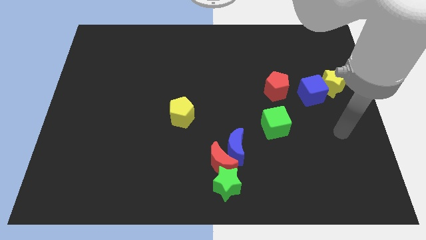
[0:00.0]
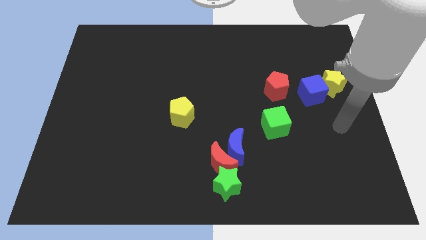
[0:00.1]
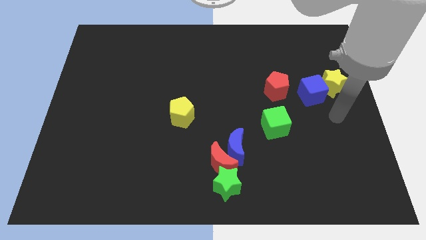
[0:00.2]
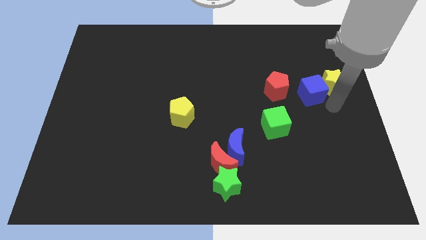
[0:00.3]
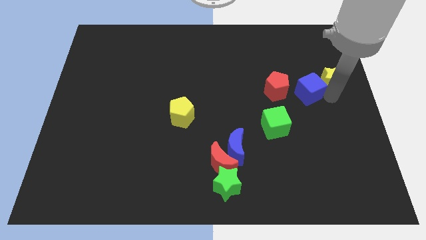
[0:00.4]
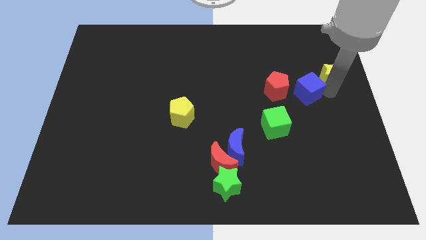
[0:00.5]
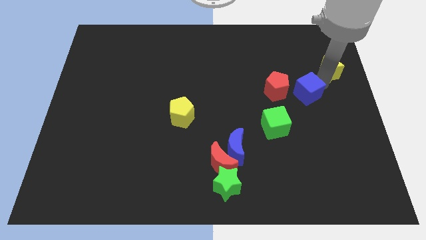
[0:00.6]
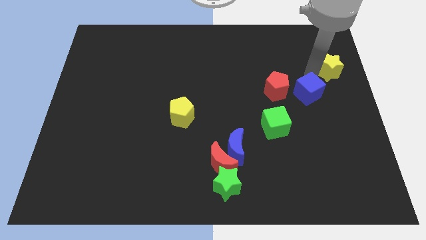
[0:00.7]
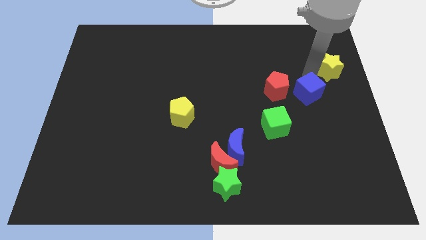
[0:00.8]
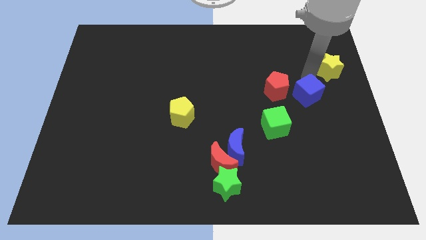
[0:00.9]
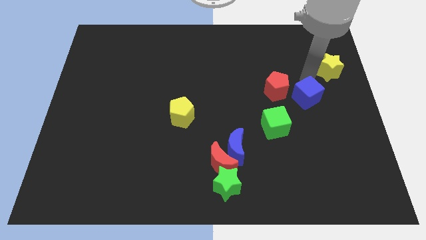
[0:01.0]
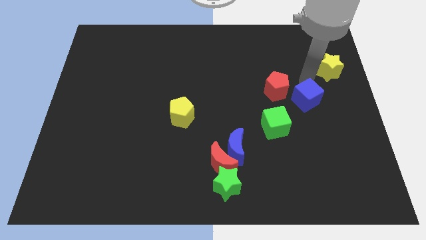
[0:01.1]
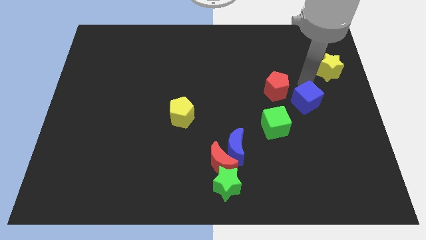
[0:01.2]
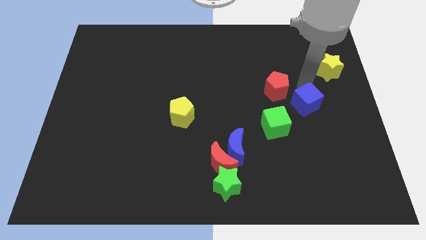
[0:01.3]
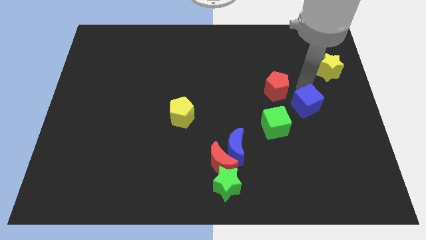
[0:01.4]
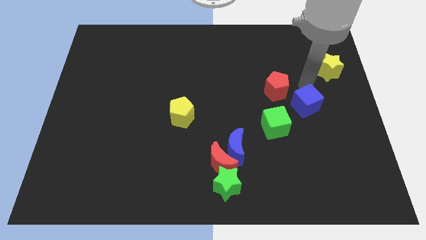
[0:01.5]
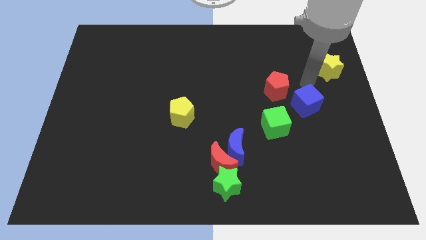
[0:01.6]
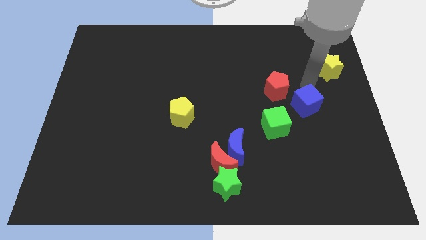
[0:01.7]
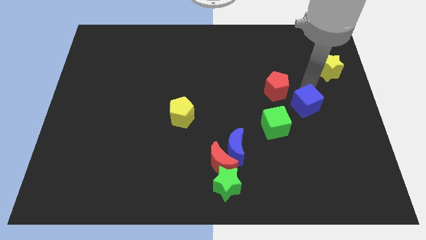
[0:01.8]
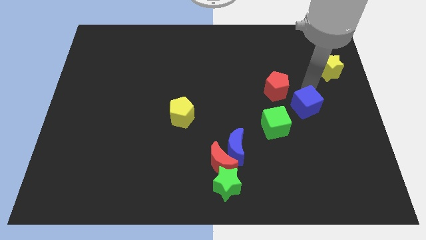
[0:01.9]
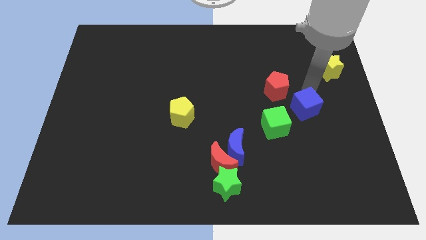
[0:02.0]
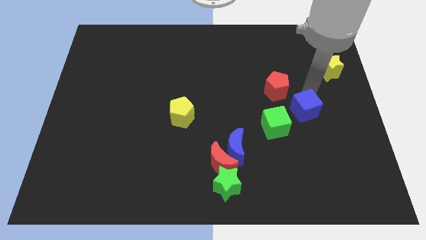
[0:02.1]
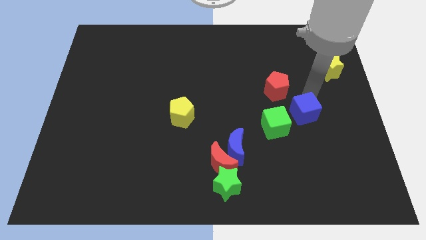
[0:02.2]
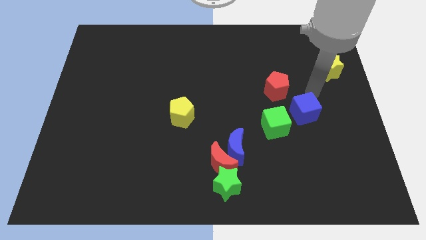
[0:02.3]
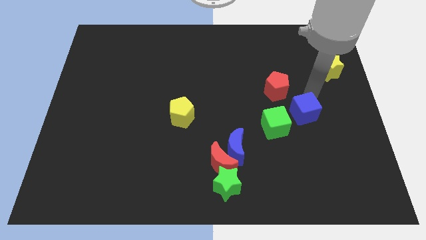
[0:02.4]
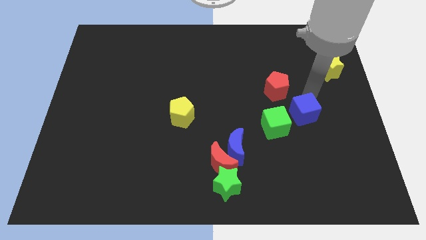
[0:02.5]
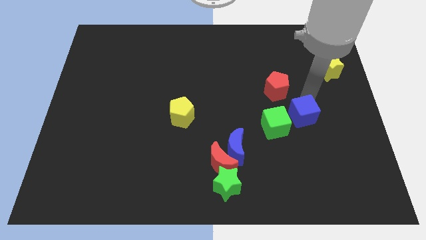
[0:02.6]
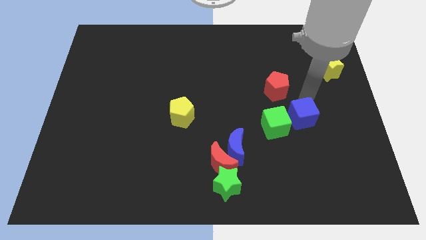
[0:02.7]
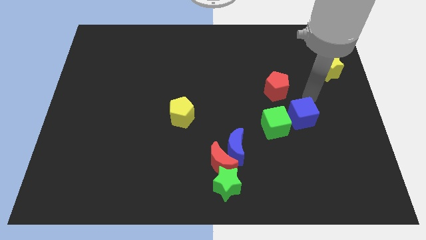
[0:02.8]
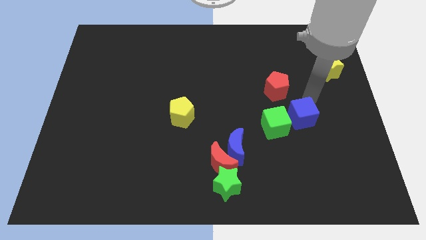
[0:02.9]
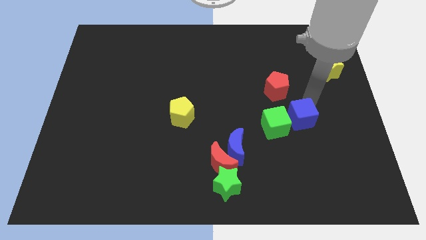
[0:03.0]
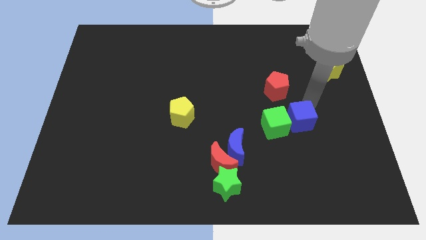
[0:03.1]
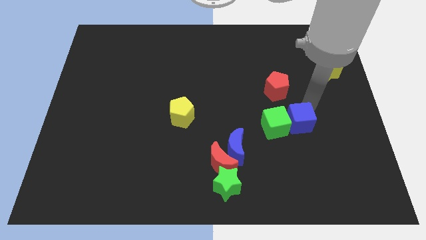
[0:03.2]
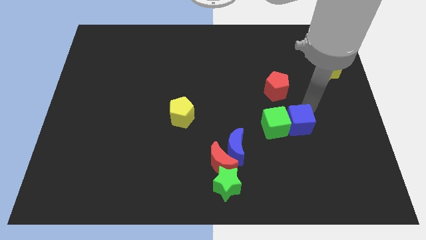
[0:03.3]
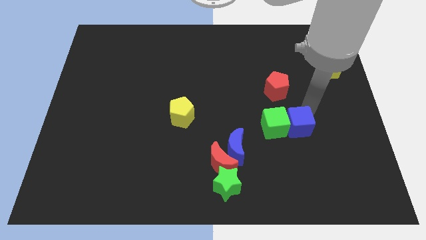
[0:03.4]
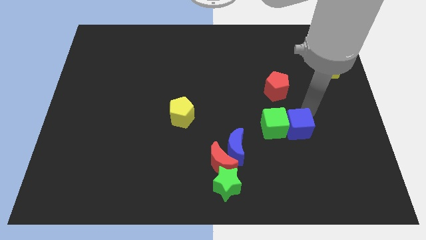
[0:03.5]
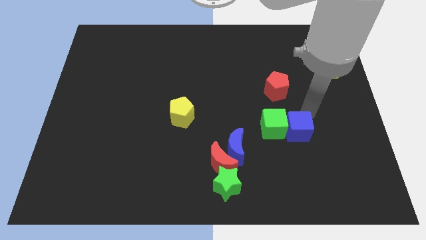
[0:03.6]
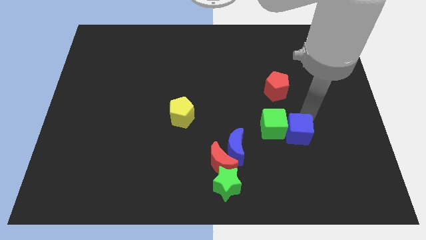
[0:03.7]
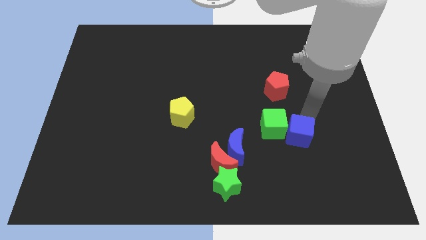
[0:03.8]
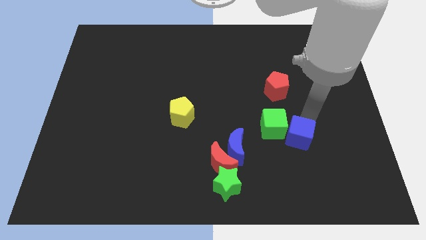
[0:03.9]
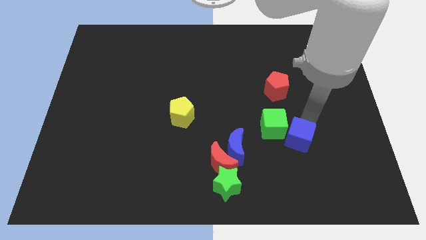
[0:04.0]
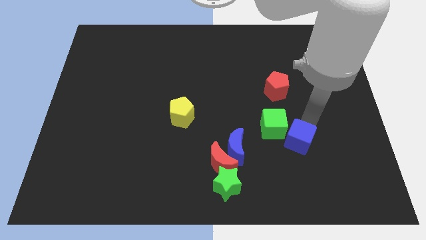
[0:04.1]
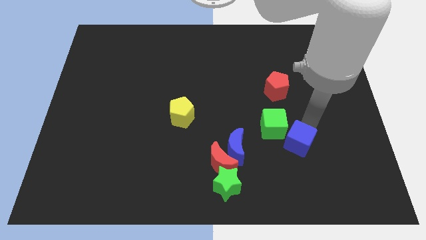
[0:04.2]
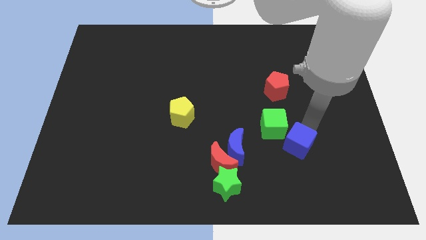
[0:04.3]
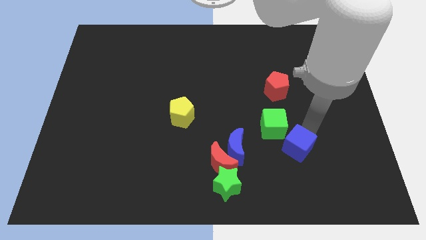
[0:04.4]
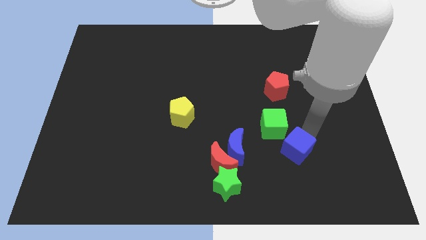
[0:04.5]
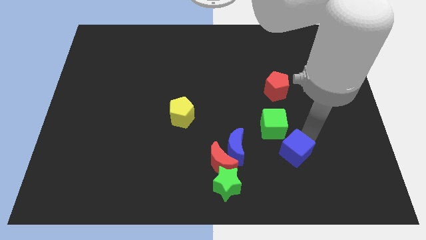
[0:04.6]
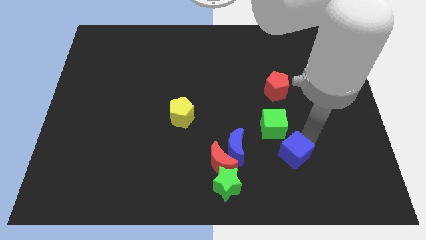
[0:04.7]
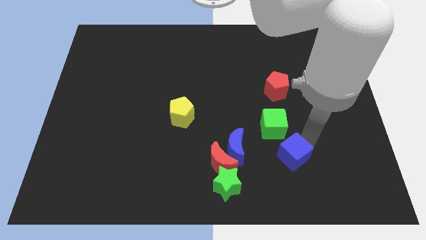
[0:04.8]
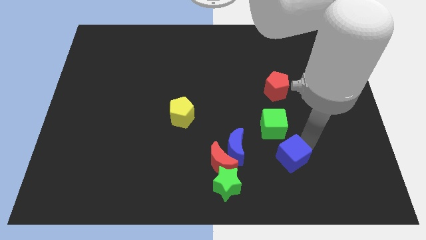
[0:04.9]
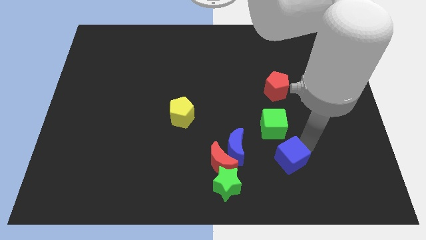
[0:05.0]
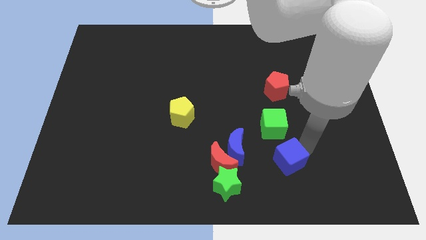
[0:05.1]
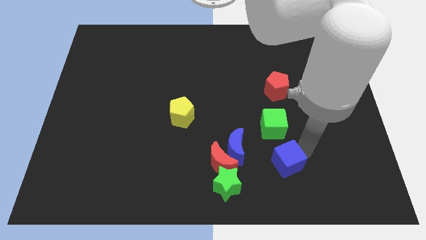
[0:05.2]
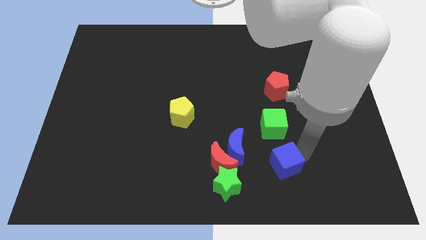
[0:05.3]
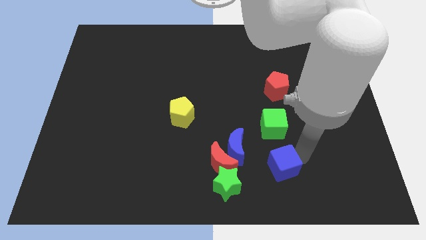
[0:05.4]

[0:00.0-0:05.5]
put the blue cube to the bottom right of the blue moon

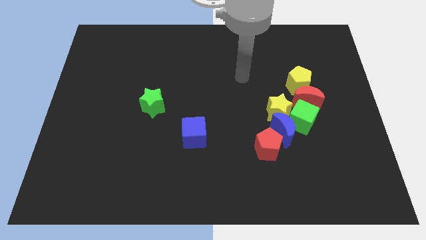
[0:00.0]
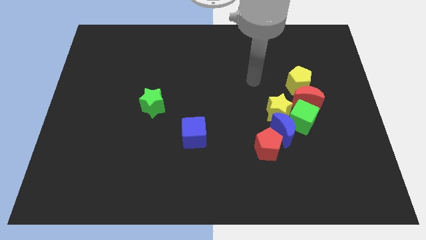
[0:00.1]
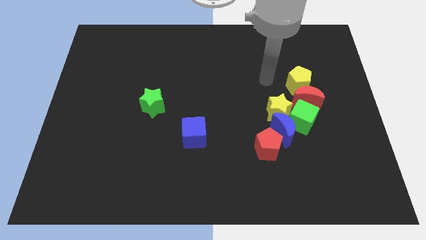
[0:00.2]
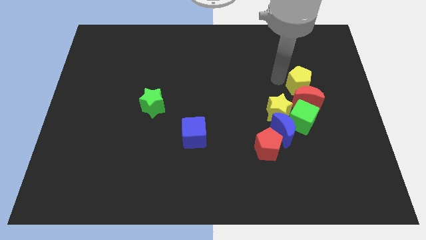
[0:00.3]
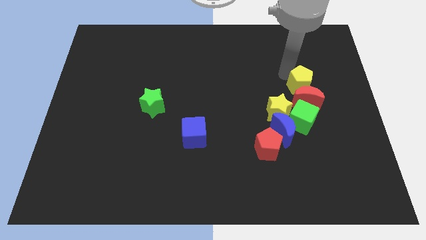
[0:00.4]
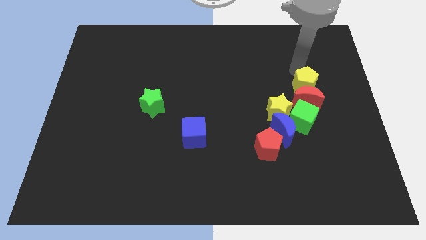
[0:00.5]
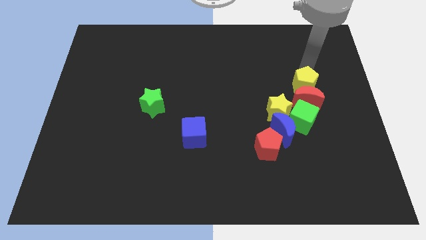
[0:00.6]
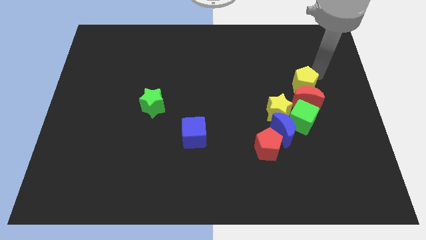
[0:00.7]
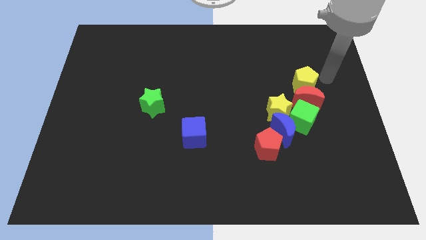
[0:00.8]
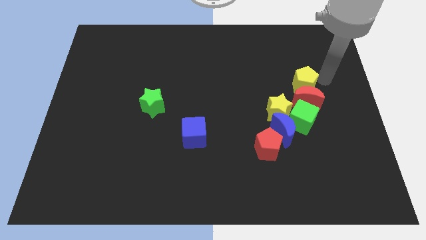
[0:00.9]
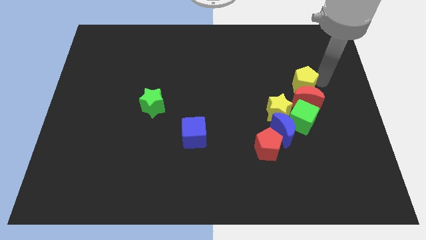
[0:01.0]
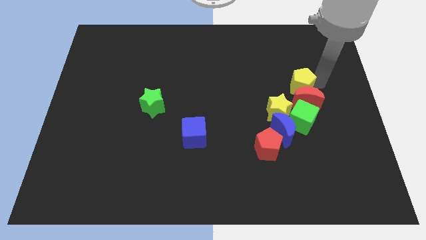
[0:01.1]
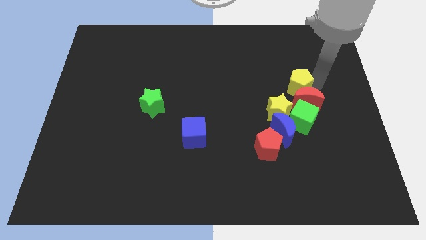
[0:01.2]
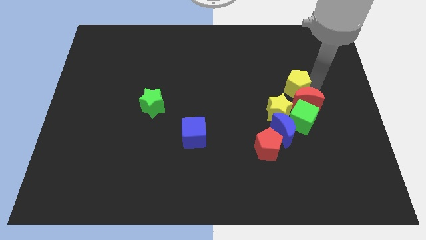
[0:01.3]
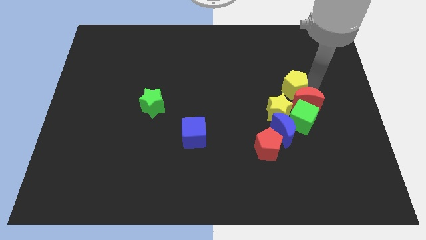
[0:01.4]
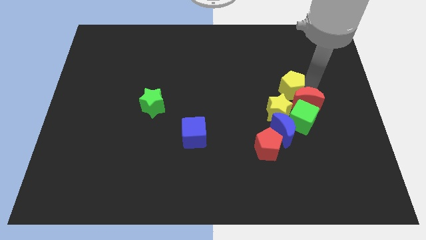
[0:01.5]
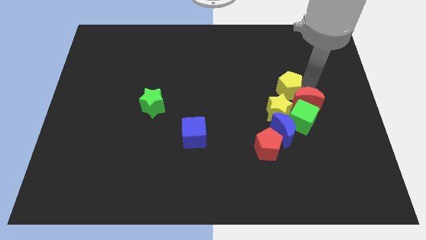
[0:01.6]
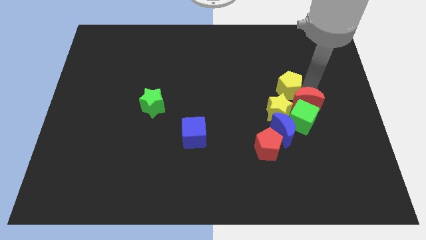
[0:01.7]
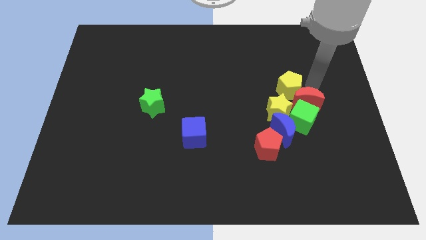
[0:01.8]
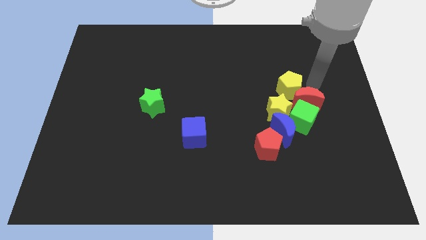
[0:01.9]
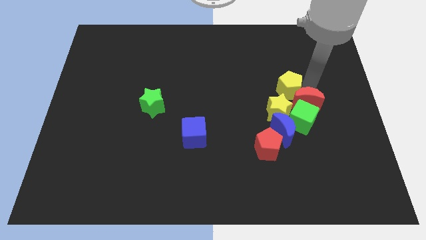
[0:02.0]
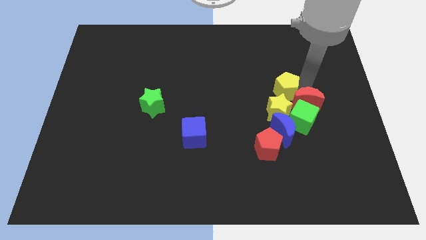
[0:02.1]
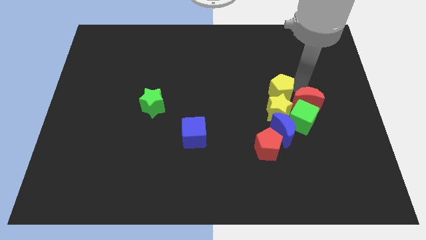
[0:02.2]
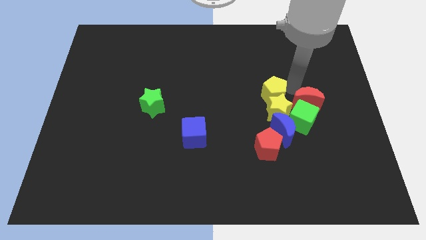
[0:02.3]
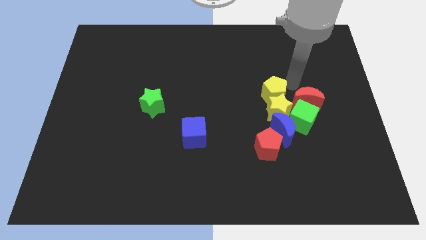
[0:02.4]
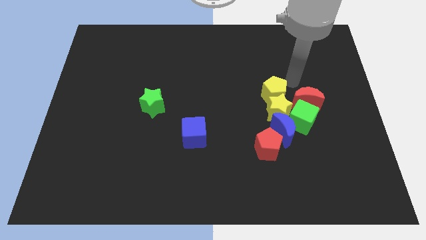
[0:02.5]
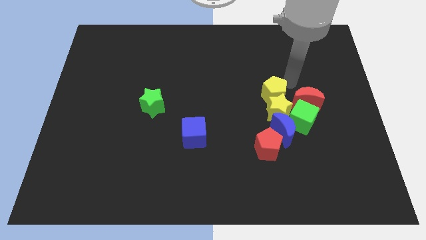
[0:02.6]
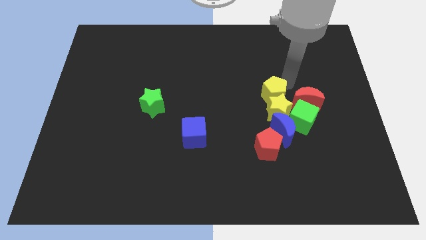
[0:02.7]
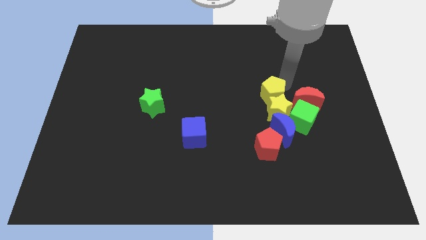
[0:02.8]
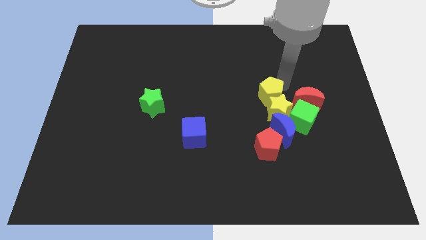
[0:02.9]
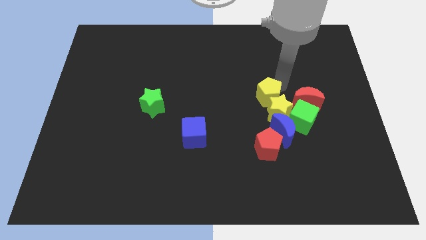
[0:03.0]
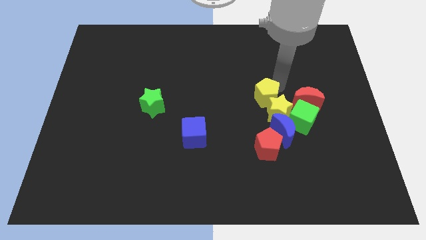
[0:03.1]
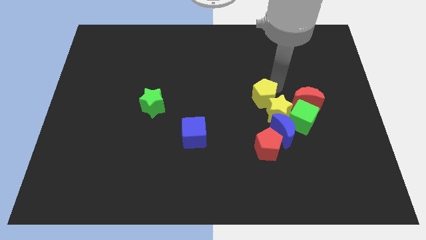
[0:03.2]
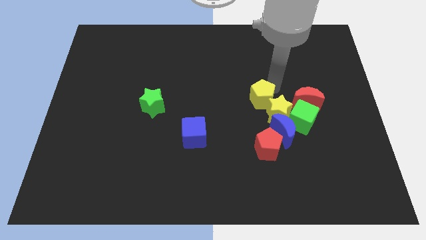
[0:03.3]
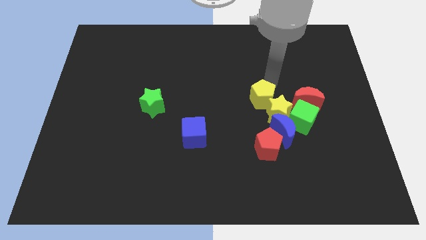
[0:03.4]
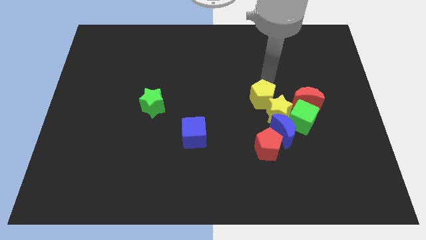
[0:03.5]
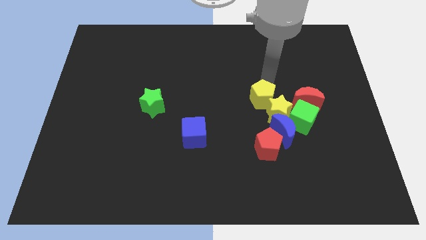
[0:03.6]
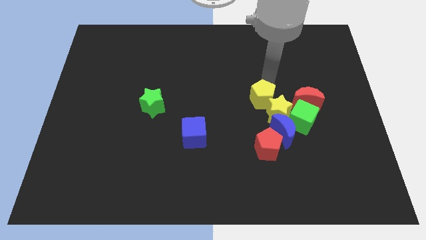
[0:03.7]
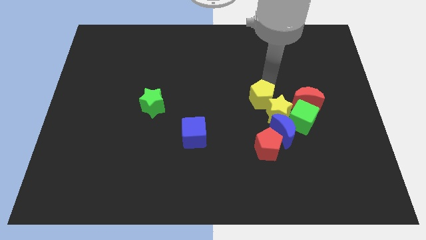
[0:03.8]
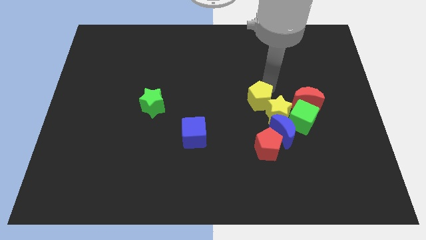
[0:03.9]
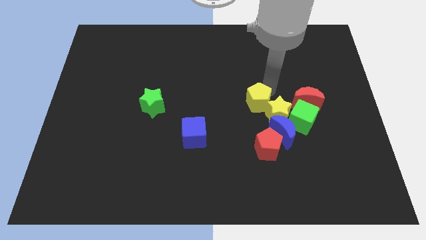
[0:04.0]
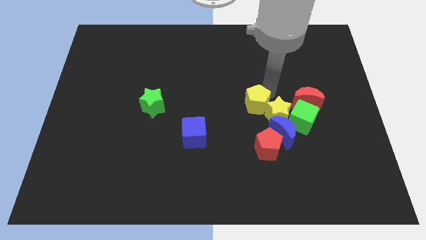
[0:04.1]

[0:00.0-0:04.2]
slide the yellow pentagon to the left side of the green cube
